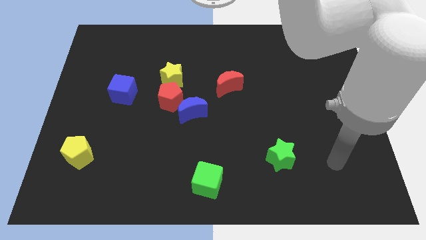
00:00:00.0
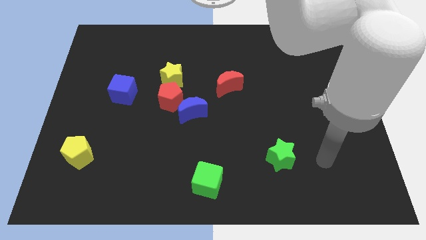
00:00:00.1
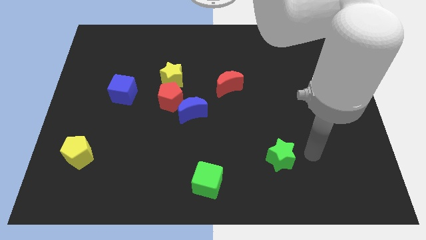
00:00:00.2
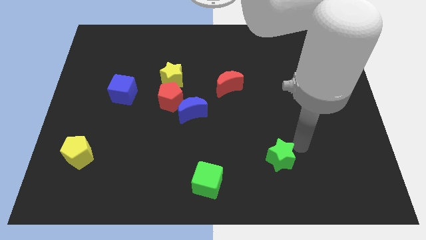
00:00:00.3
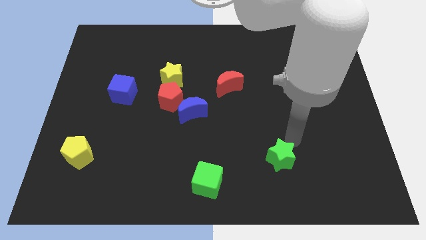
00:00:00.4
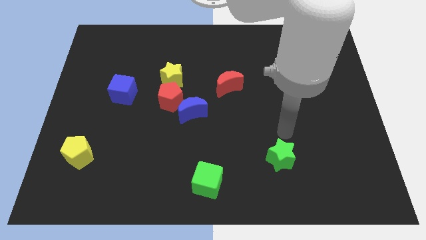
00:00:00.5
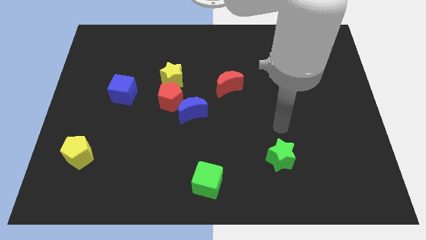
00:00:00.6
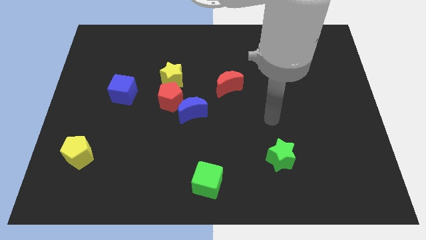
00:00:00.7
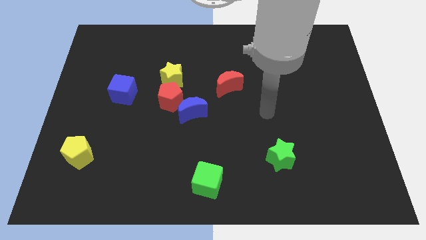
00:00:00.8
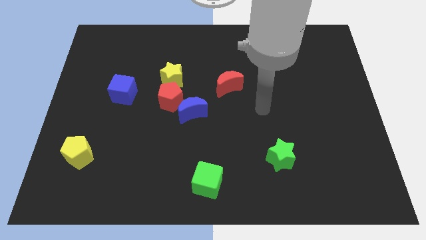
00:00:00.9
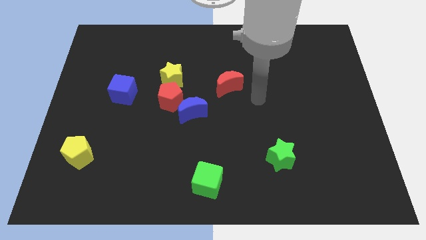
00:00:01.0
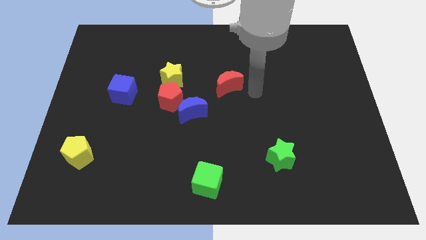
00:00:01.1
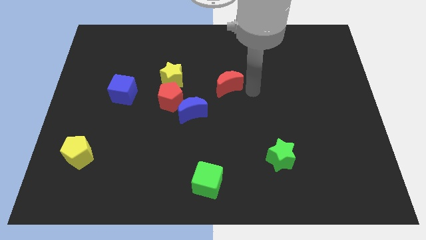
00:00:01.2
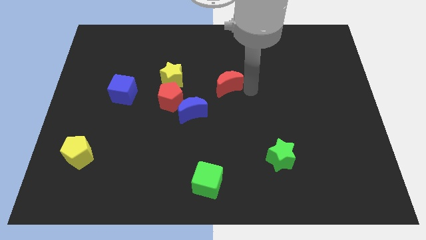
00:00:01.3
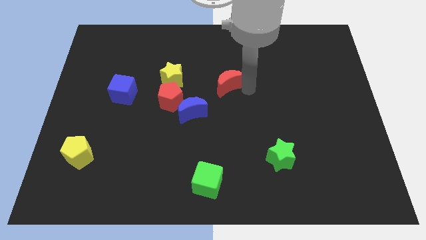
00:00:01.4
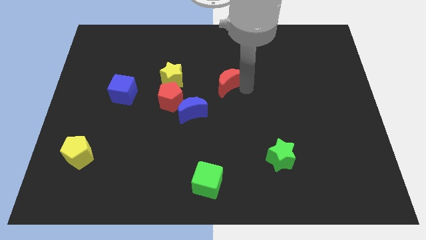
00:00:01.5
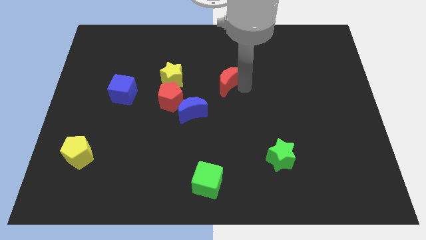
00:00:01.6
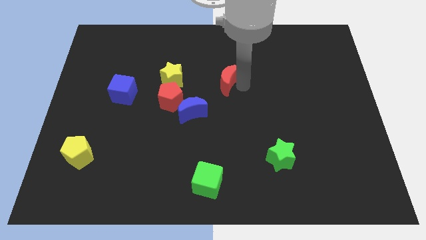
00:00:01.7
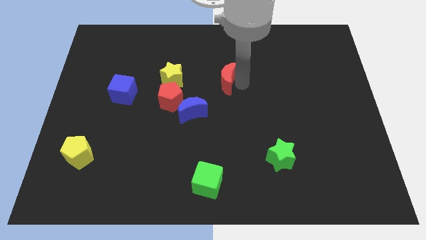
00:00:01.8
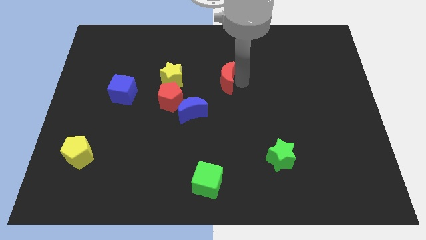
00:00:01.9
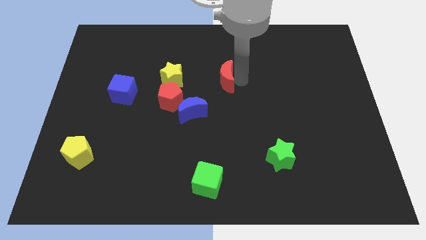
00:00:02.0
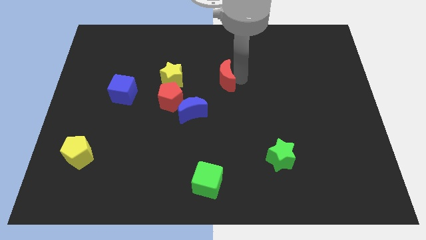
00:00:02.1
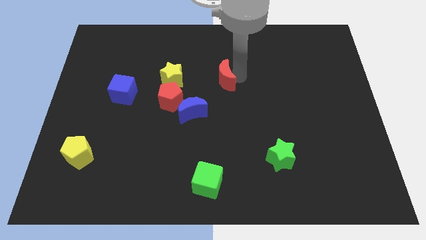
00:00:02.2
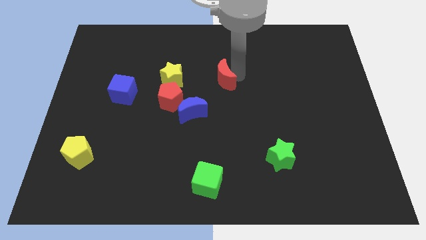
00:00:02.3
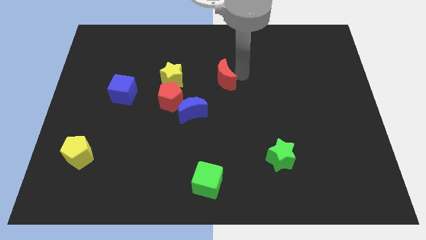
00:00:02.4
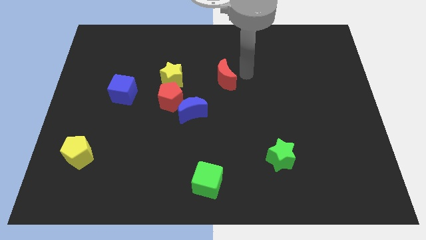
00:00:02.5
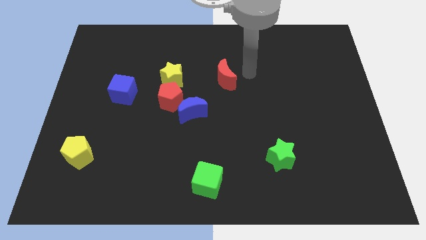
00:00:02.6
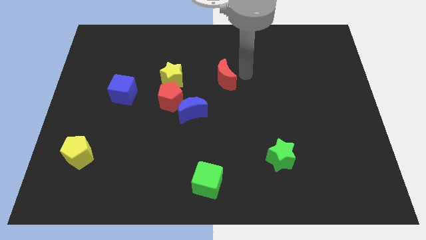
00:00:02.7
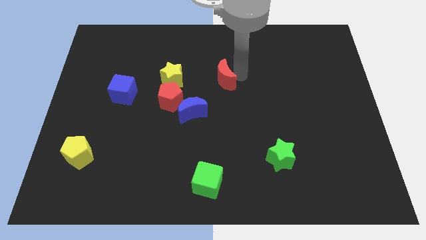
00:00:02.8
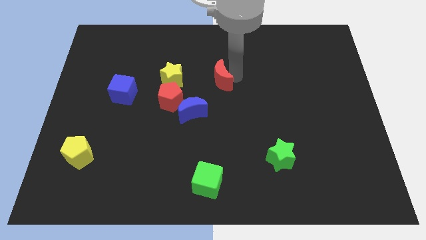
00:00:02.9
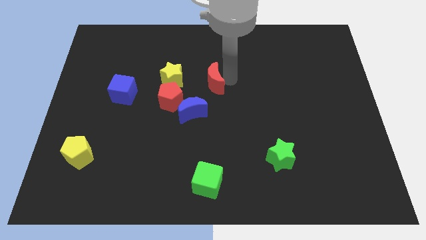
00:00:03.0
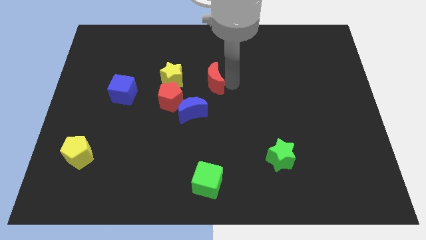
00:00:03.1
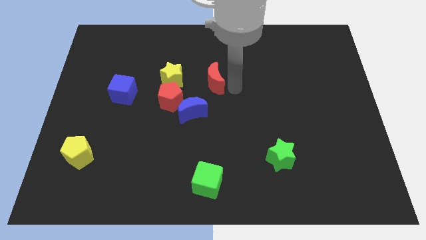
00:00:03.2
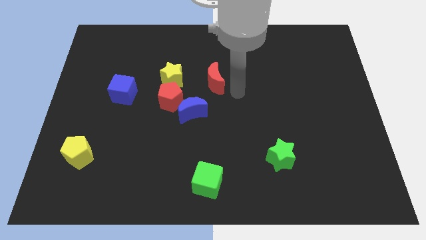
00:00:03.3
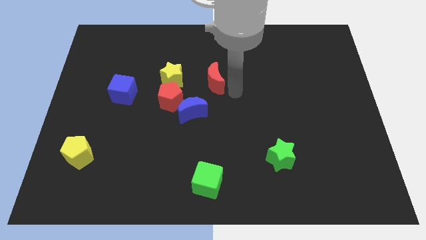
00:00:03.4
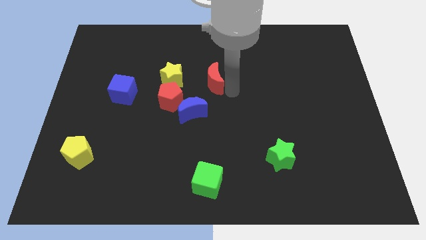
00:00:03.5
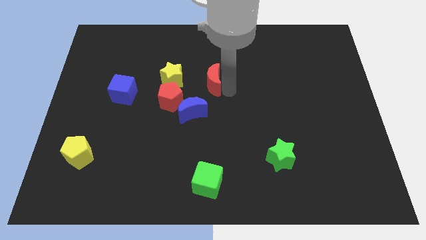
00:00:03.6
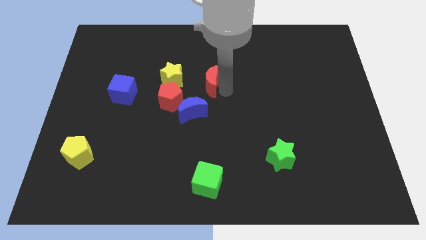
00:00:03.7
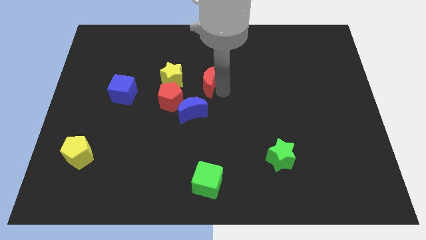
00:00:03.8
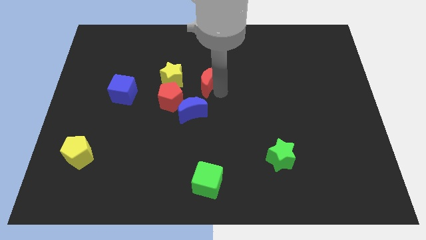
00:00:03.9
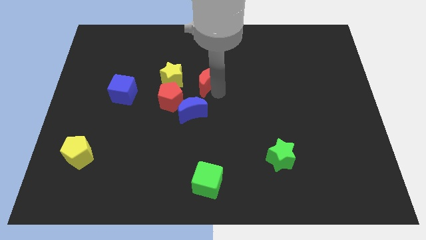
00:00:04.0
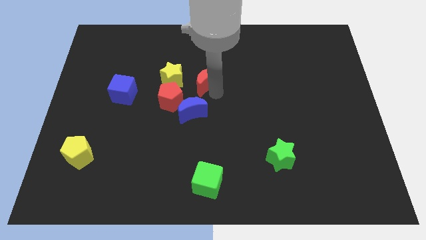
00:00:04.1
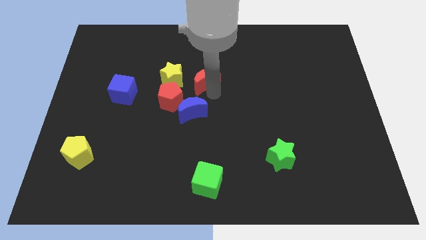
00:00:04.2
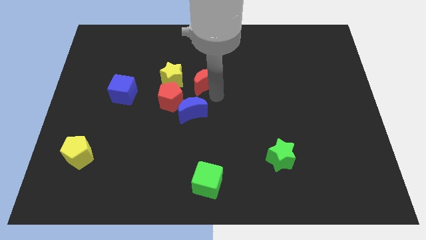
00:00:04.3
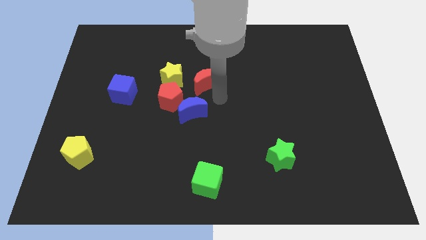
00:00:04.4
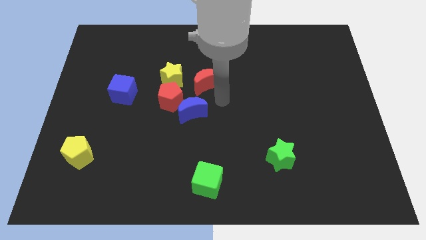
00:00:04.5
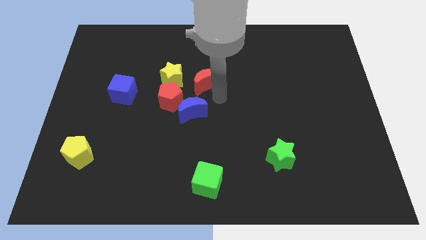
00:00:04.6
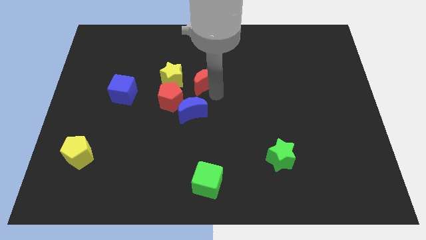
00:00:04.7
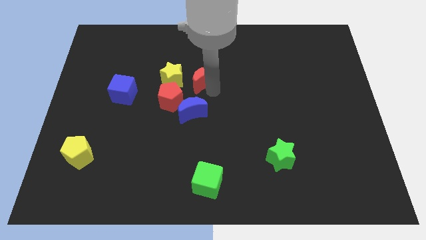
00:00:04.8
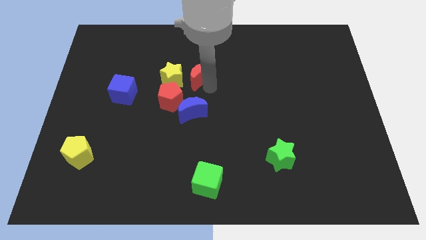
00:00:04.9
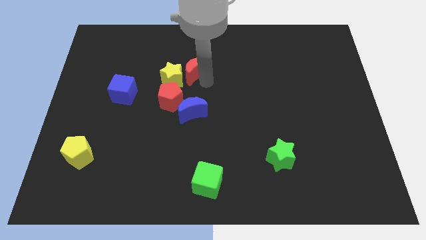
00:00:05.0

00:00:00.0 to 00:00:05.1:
slightly slide the red moon to the left

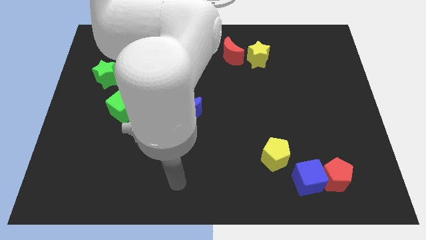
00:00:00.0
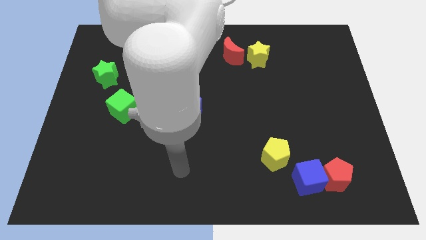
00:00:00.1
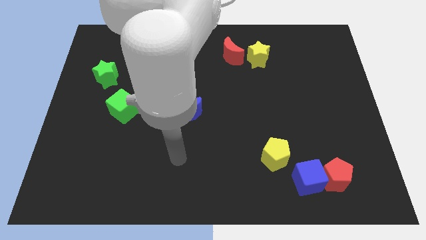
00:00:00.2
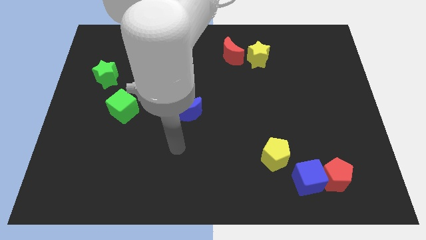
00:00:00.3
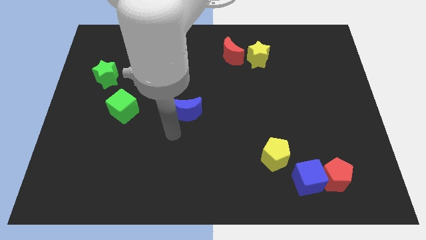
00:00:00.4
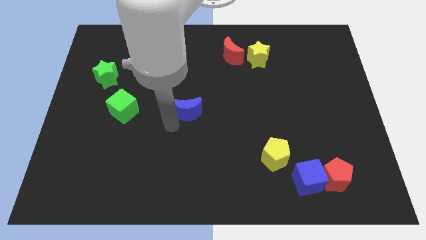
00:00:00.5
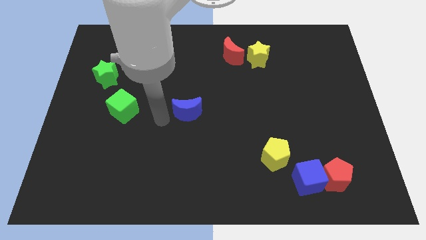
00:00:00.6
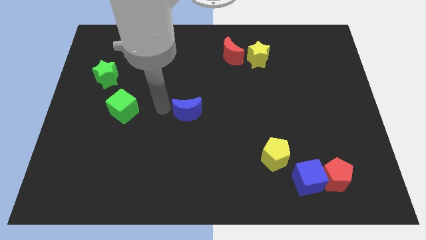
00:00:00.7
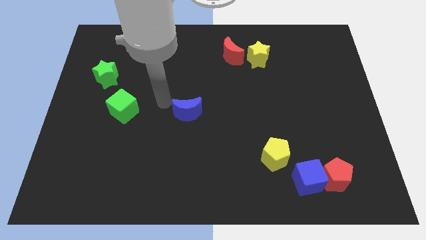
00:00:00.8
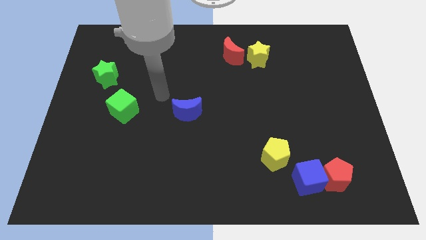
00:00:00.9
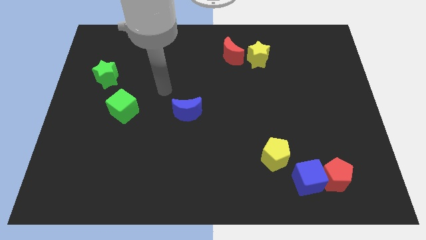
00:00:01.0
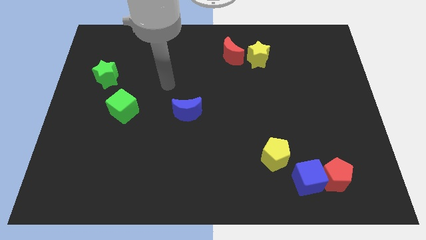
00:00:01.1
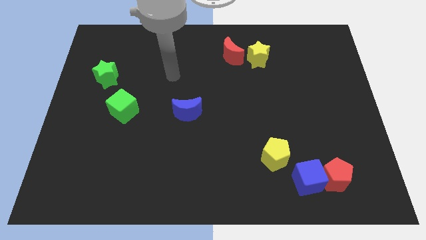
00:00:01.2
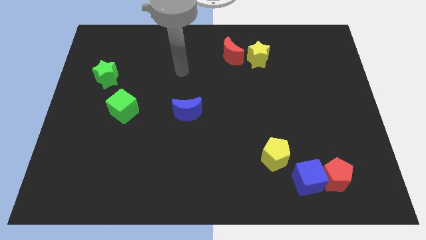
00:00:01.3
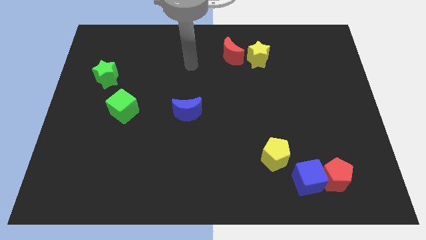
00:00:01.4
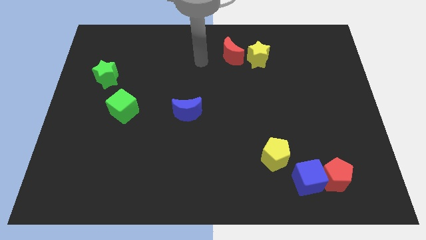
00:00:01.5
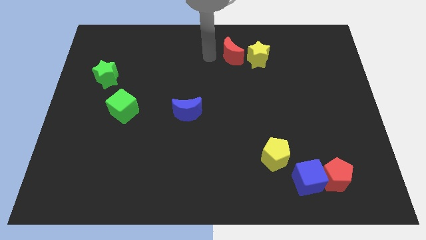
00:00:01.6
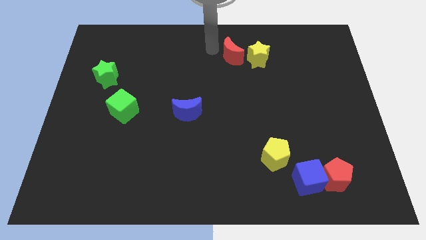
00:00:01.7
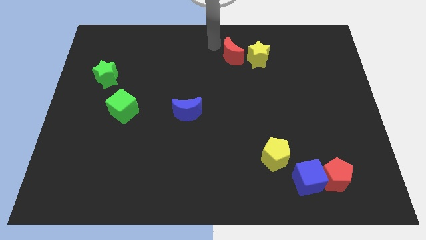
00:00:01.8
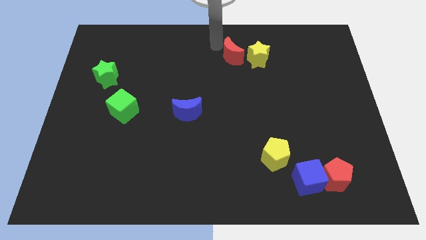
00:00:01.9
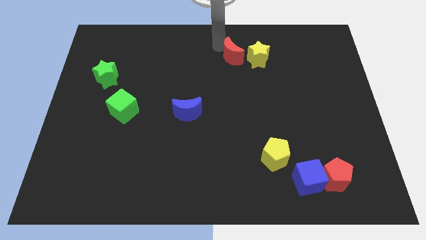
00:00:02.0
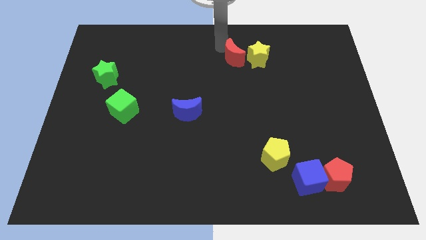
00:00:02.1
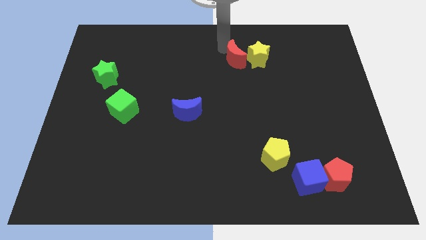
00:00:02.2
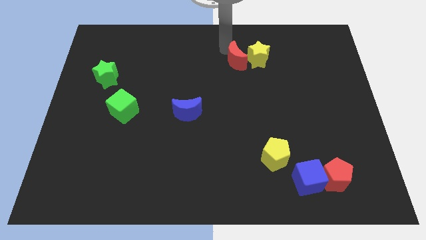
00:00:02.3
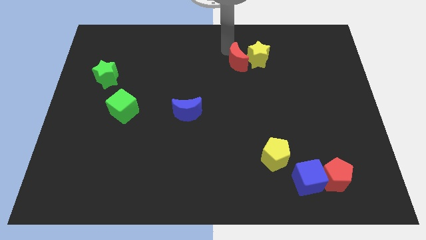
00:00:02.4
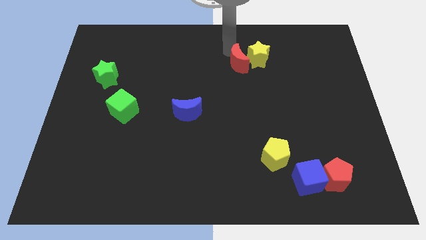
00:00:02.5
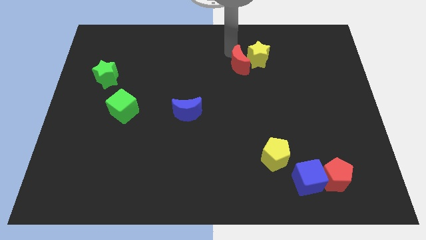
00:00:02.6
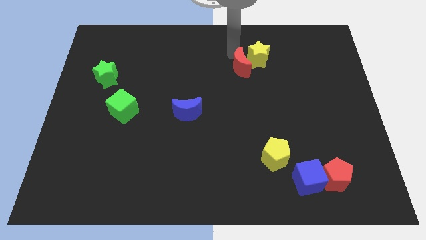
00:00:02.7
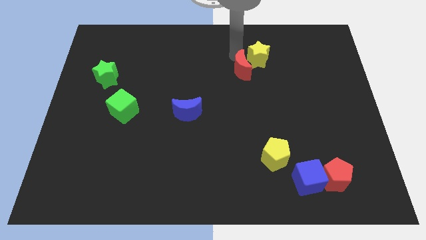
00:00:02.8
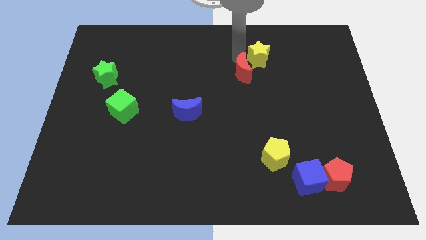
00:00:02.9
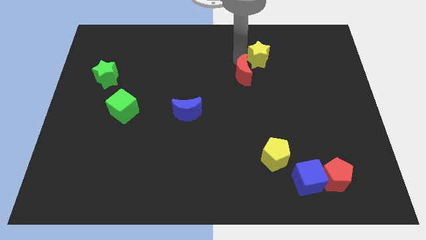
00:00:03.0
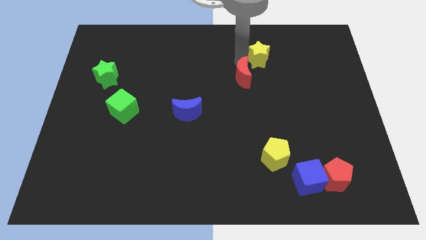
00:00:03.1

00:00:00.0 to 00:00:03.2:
slightly move the red moon diagonally down and right

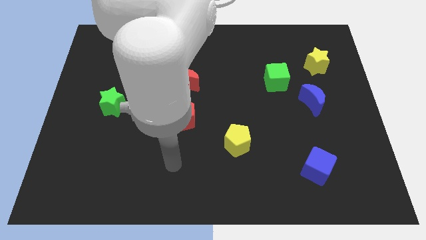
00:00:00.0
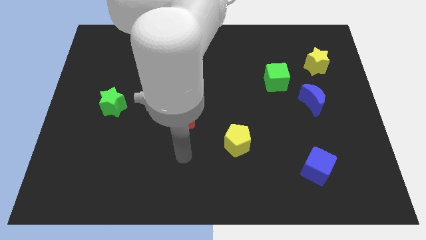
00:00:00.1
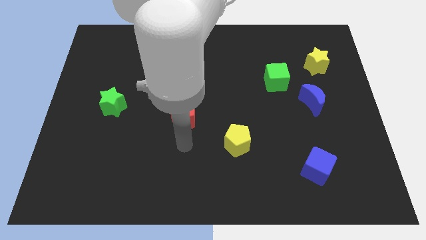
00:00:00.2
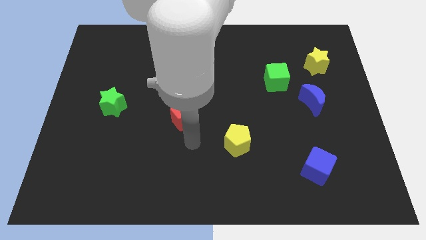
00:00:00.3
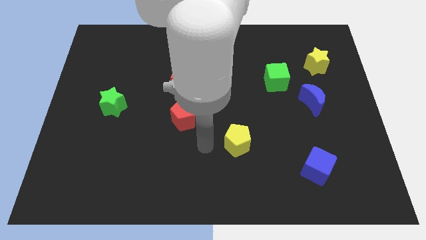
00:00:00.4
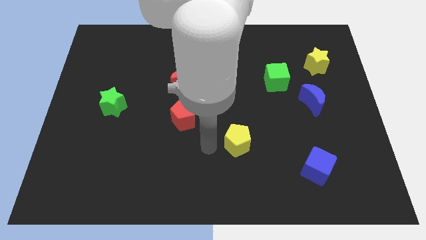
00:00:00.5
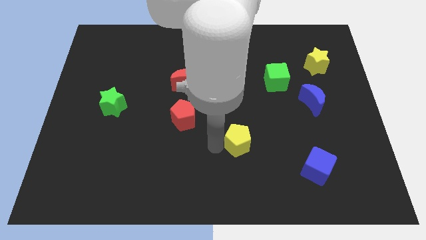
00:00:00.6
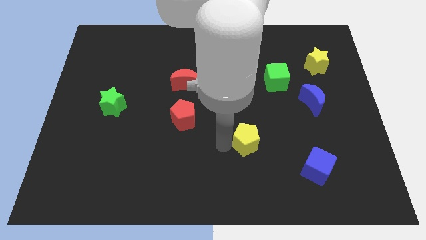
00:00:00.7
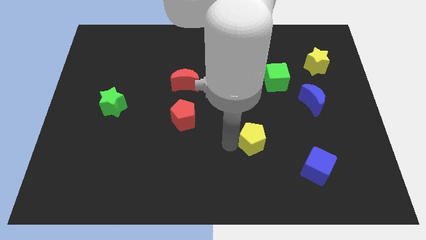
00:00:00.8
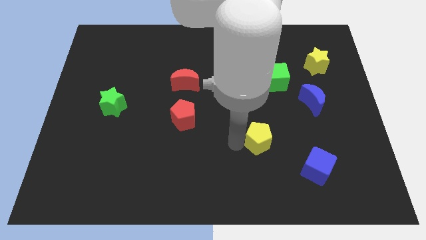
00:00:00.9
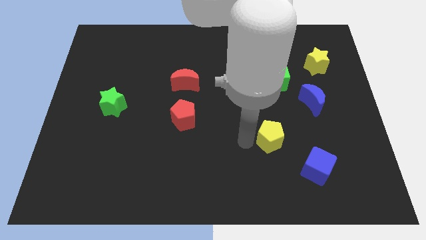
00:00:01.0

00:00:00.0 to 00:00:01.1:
move the yellow pentagon to the right a little
